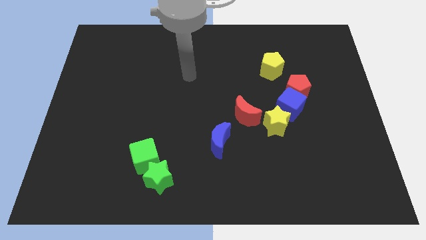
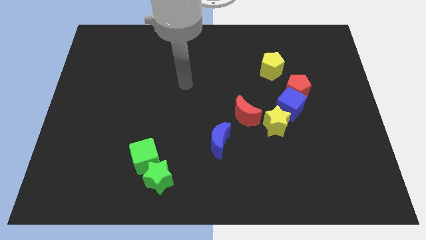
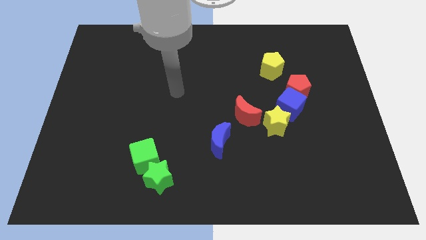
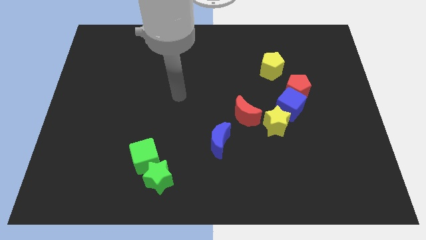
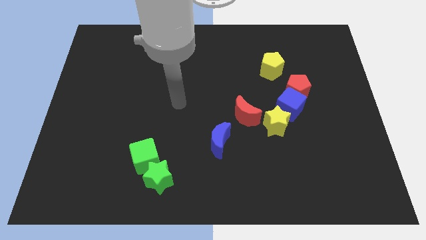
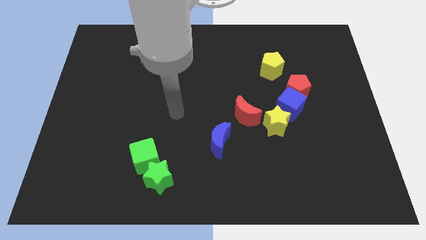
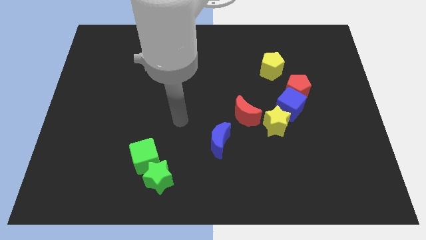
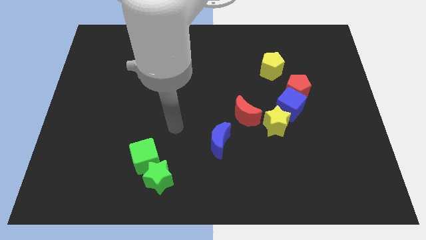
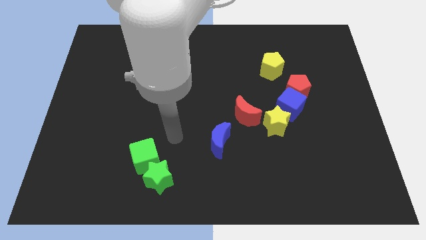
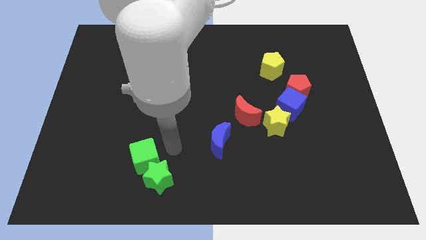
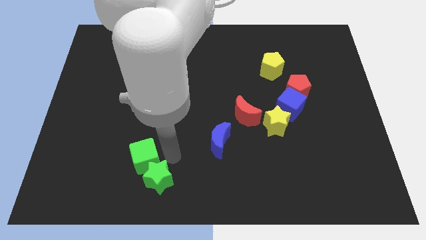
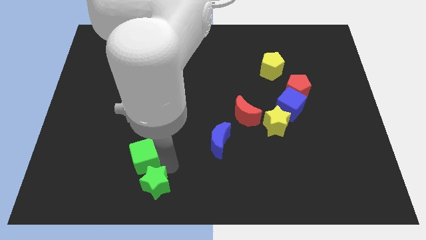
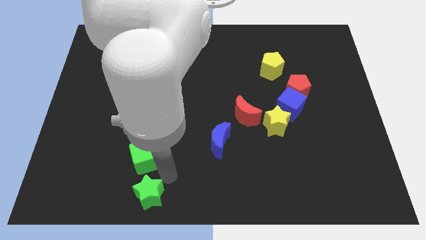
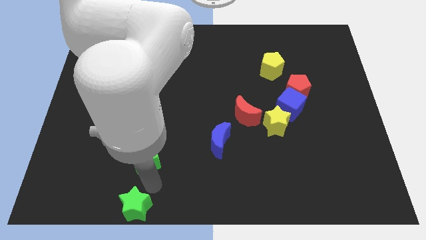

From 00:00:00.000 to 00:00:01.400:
pull the green cube apart from the green star

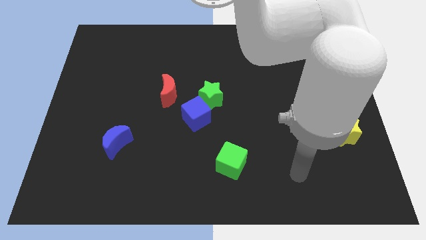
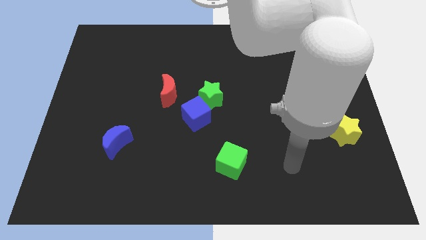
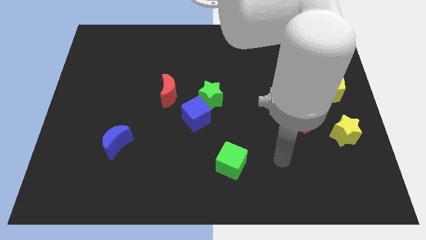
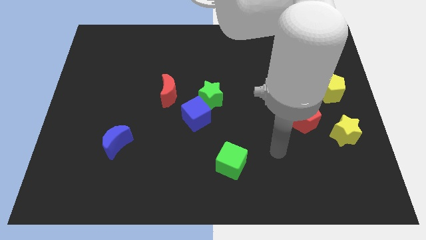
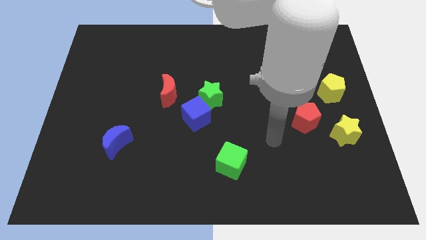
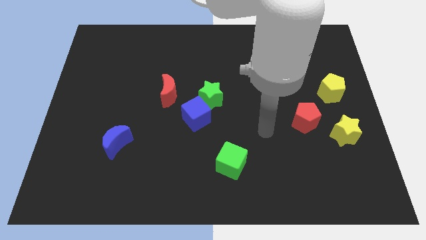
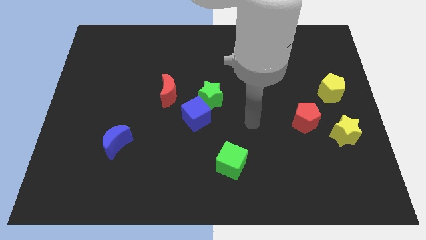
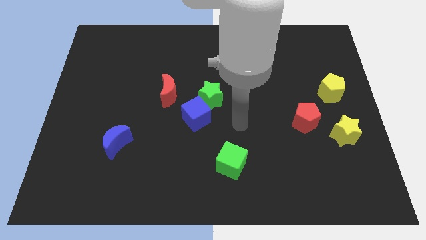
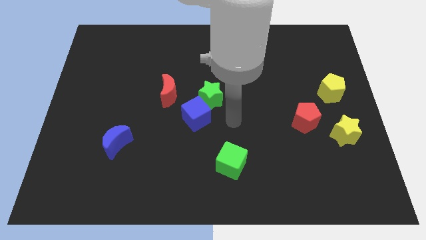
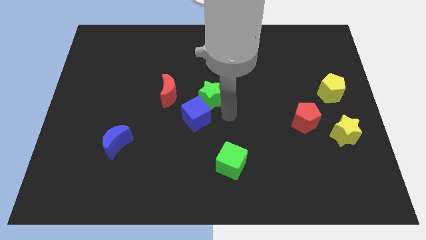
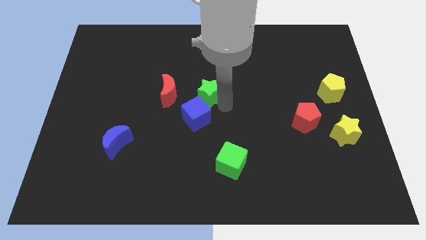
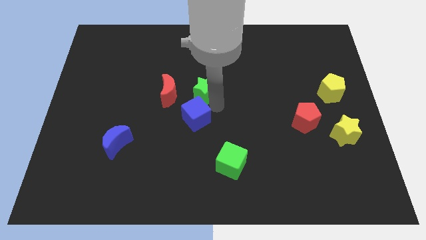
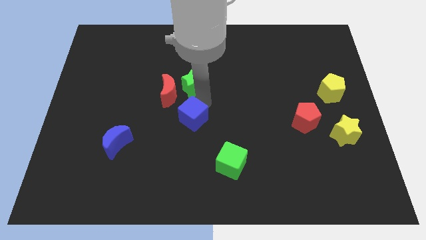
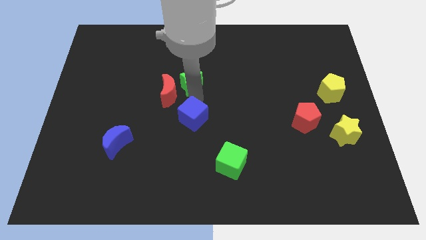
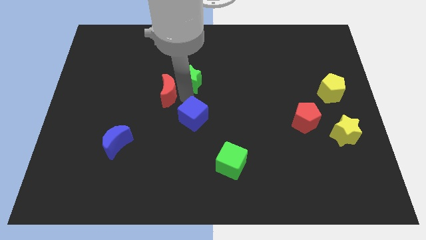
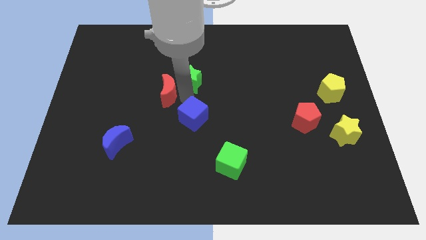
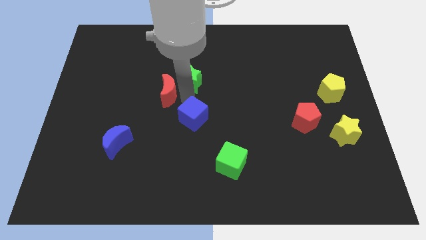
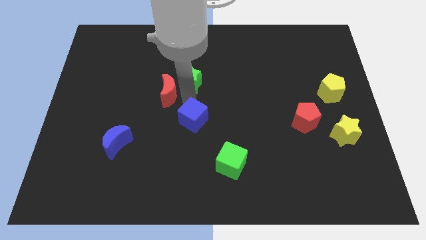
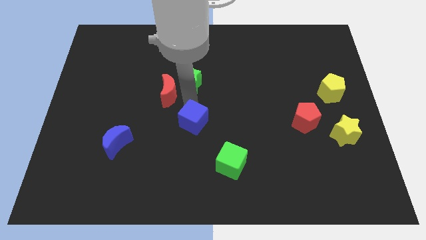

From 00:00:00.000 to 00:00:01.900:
pull the blue cube apart from the green star and red moon

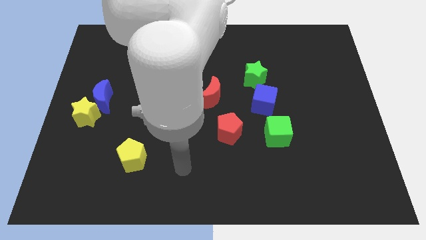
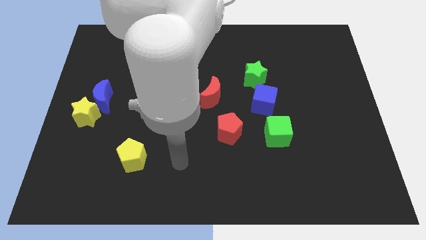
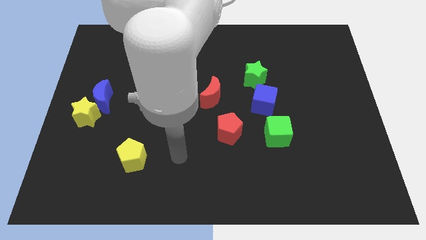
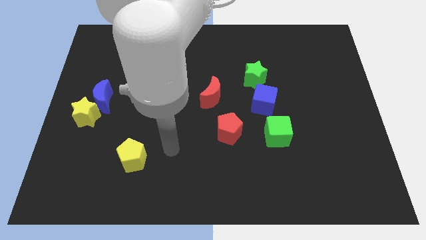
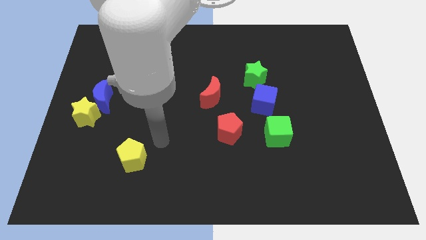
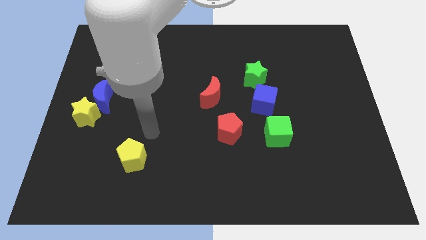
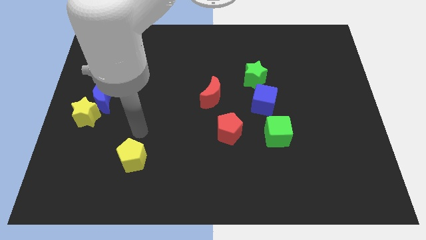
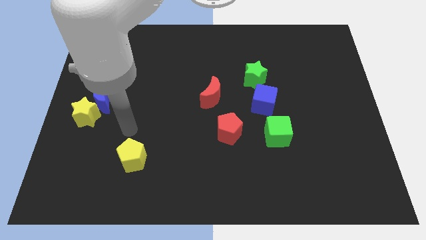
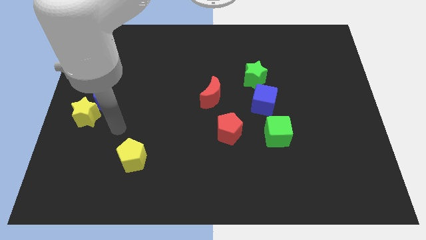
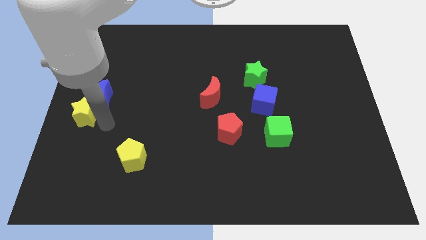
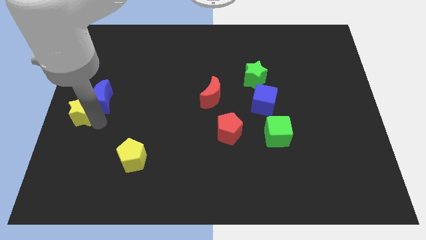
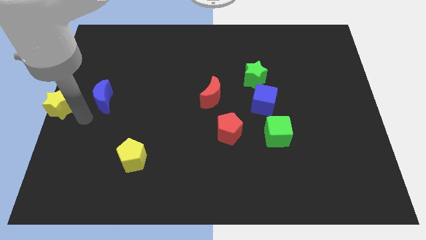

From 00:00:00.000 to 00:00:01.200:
pull the blue moon apart from the yellow star

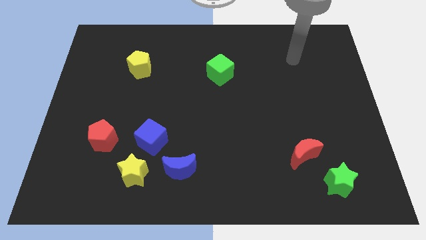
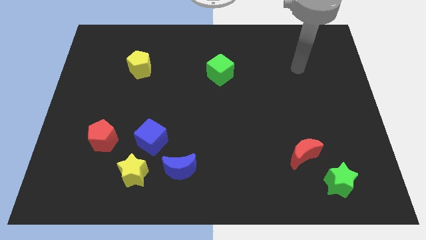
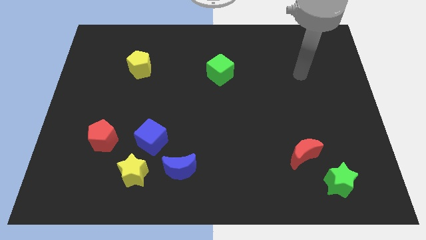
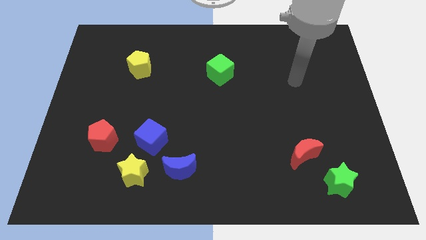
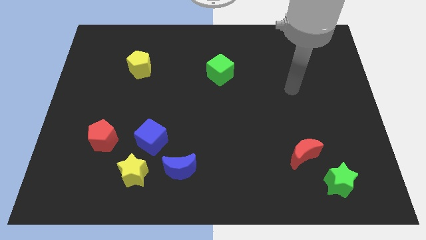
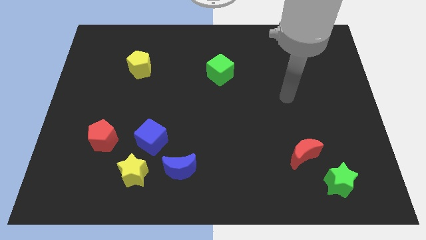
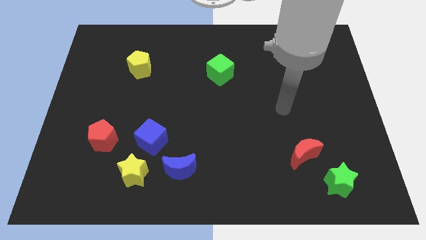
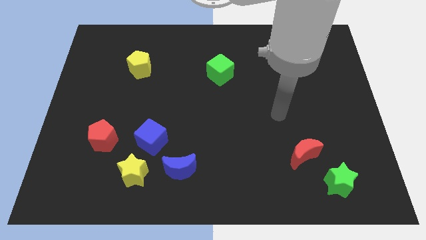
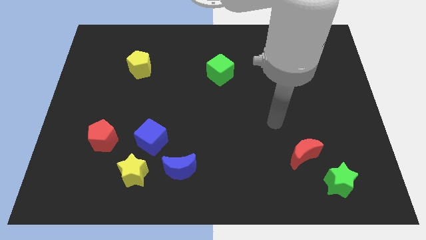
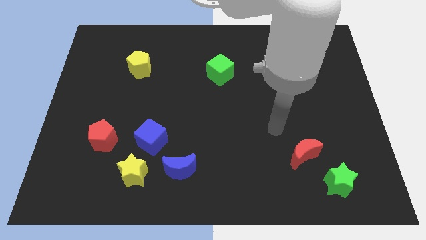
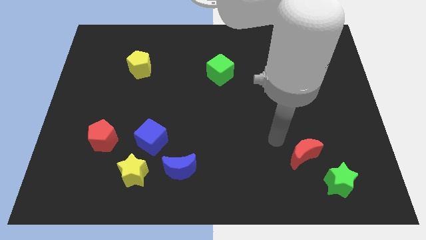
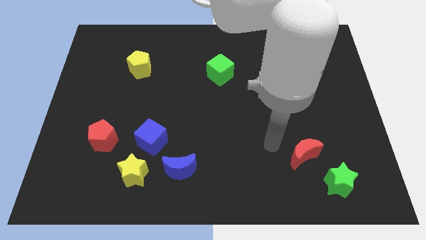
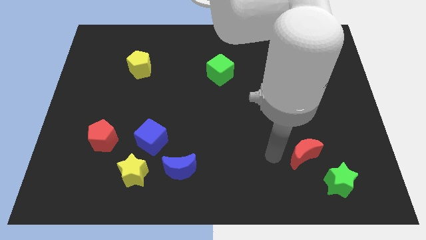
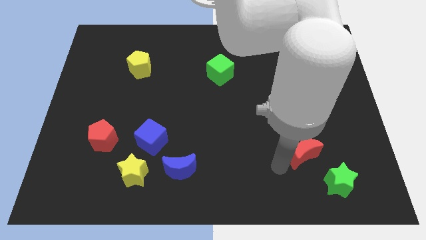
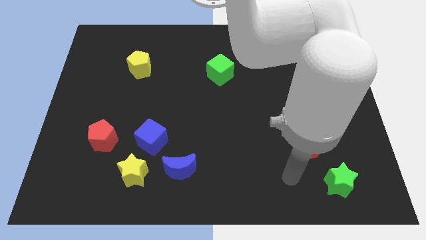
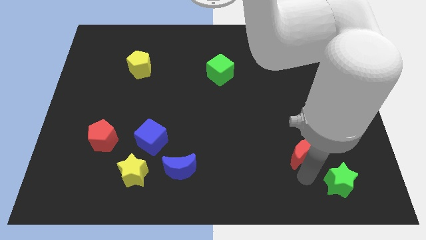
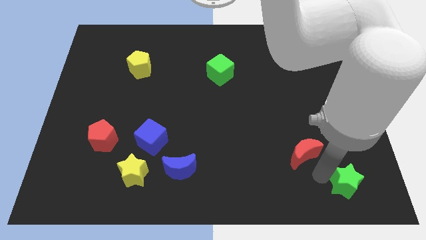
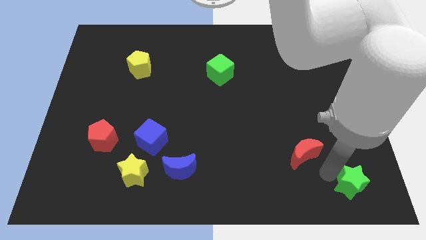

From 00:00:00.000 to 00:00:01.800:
move the red moon away from the green star

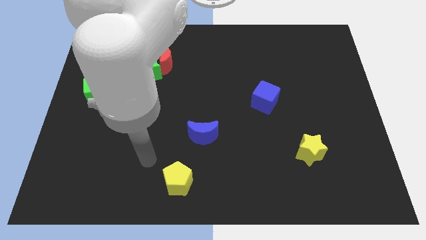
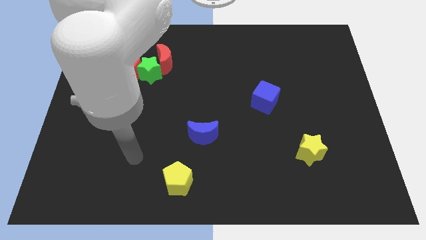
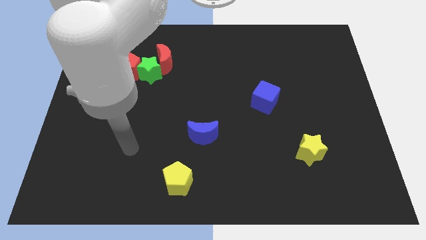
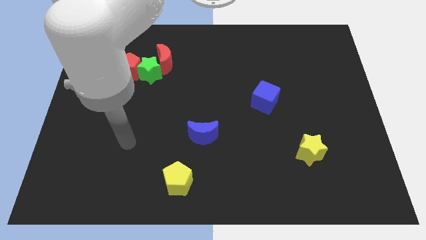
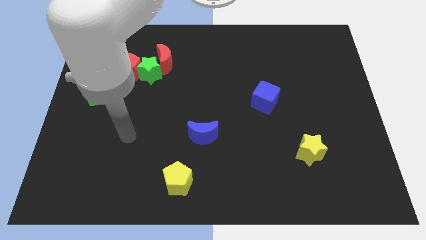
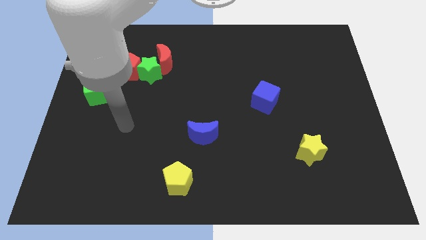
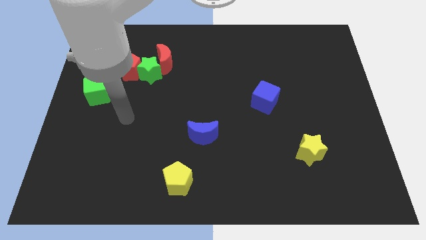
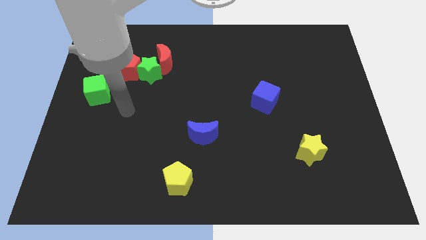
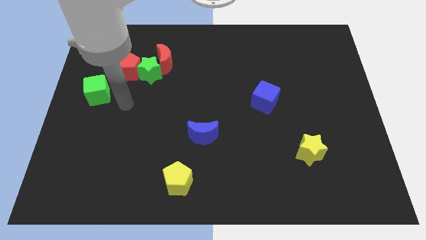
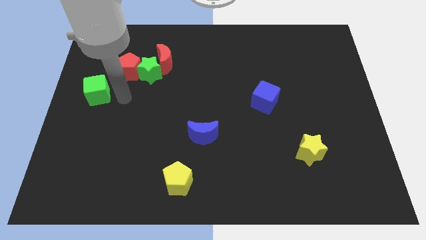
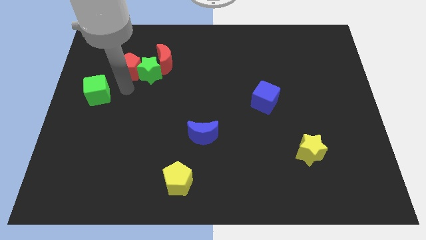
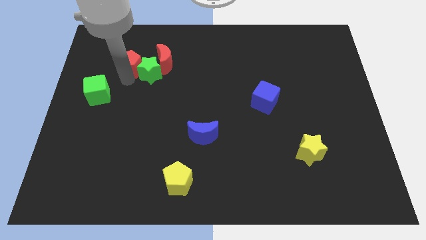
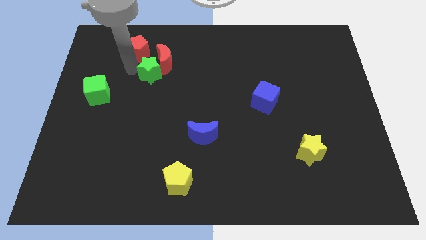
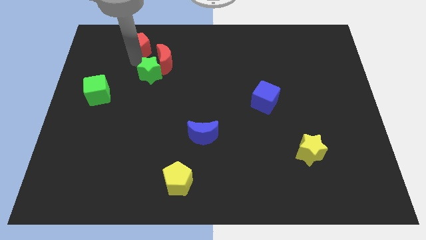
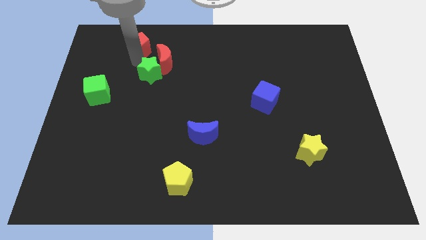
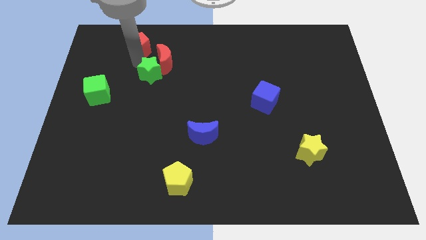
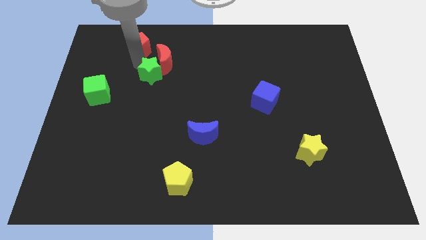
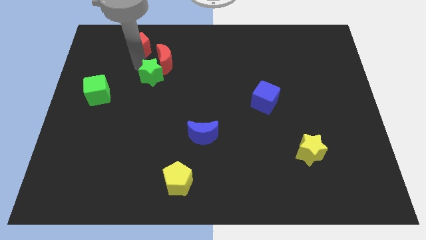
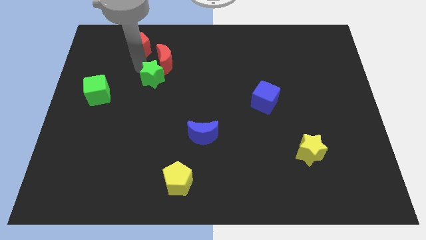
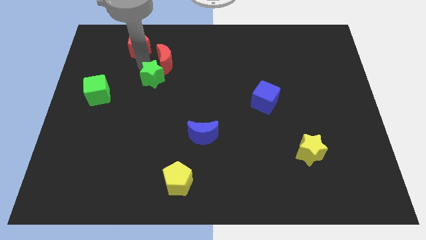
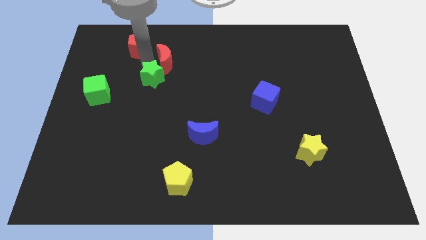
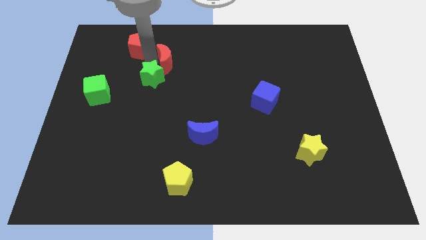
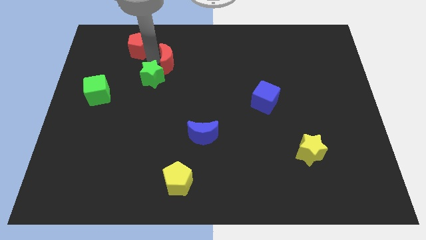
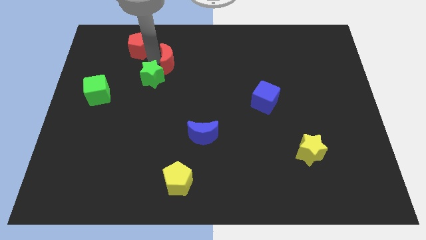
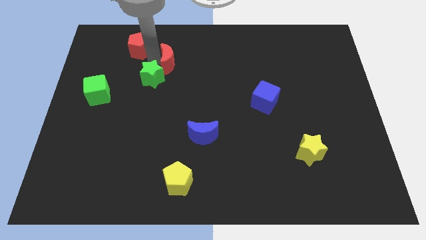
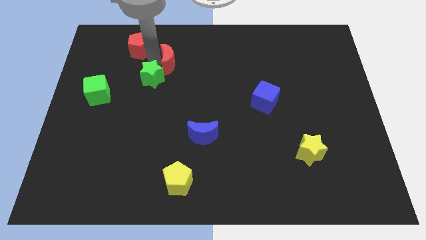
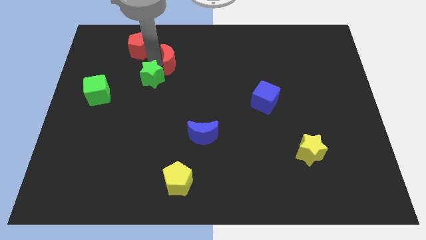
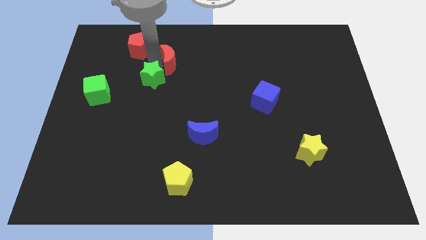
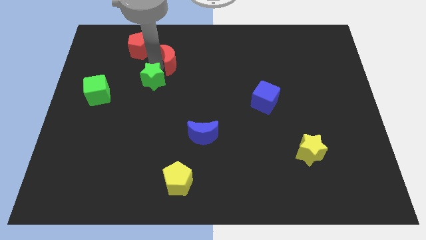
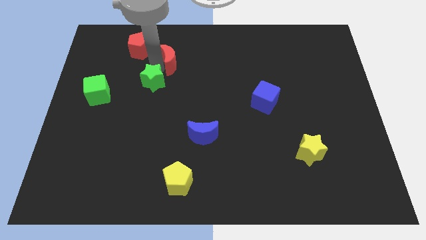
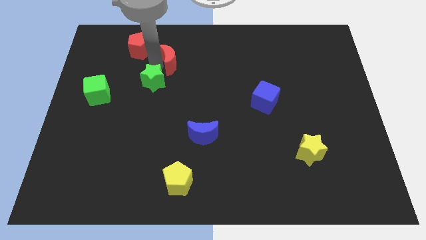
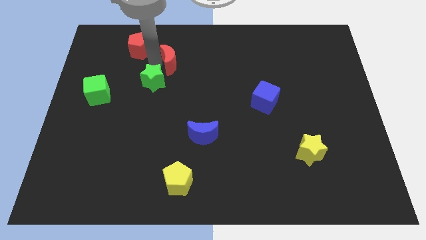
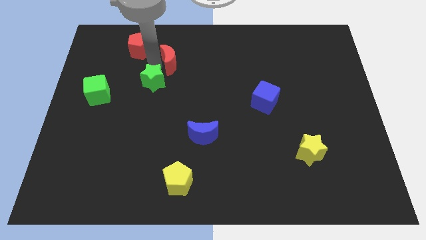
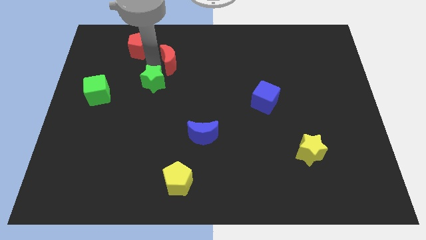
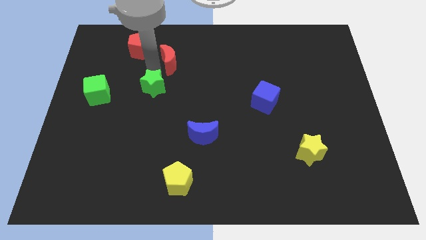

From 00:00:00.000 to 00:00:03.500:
separate the green star from the red pentagon and red moon
